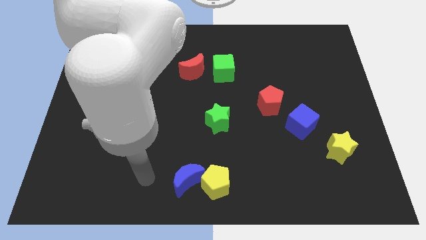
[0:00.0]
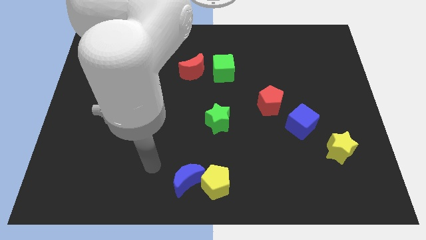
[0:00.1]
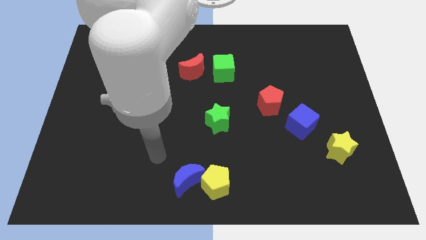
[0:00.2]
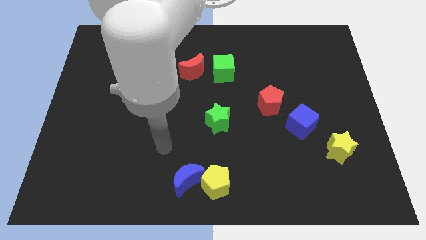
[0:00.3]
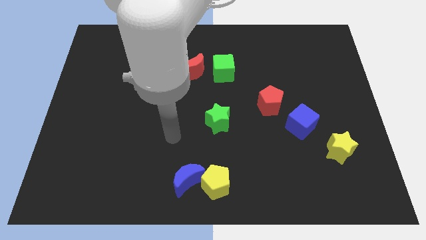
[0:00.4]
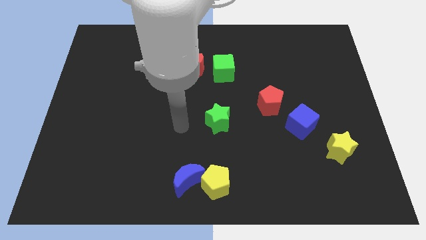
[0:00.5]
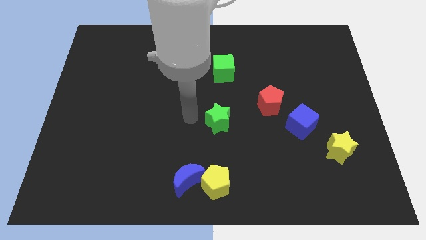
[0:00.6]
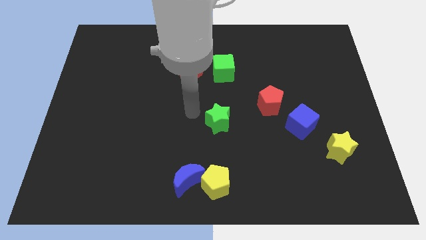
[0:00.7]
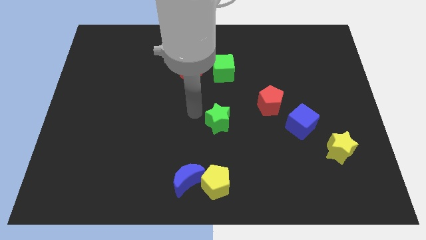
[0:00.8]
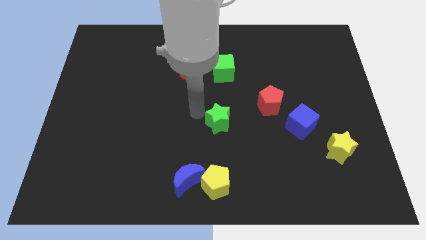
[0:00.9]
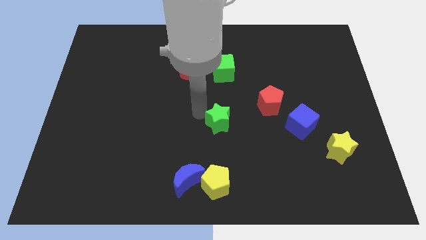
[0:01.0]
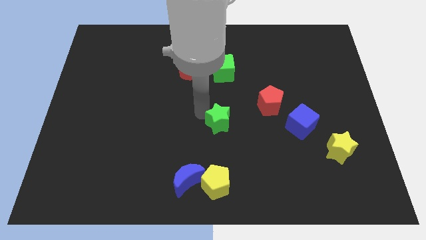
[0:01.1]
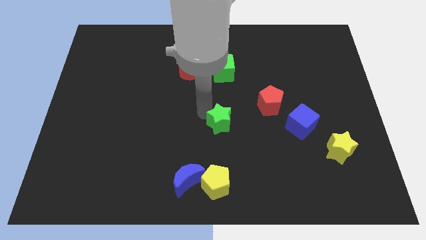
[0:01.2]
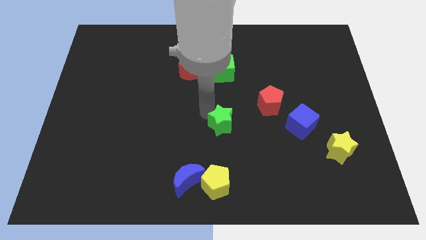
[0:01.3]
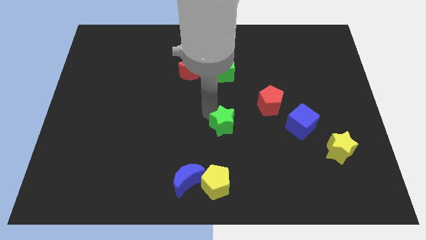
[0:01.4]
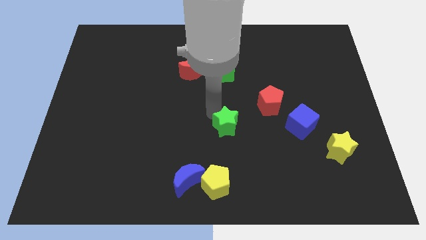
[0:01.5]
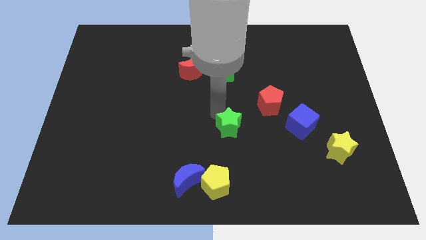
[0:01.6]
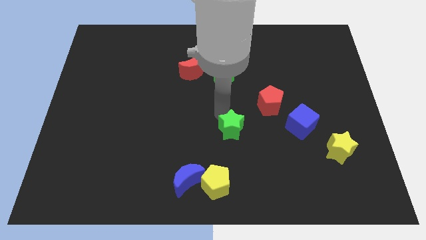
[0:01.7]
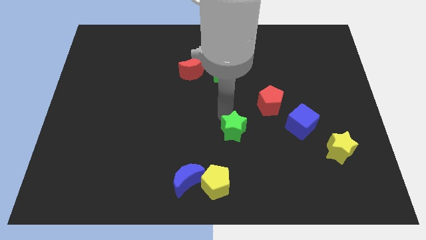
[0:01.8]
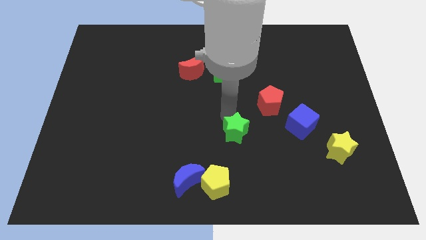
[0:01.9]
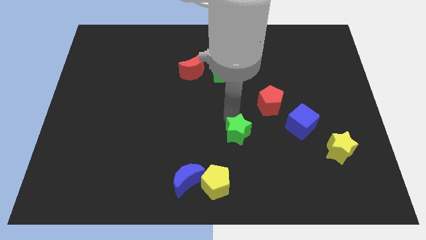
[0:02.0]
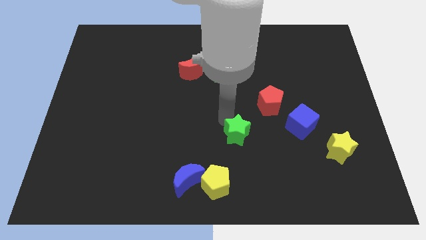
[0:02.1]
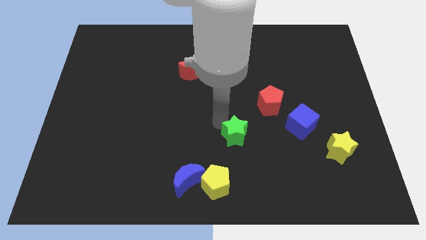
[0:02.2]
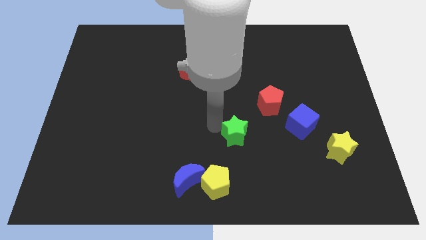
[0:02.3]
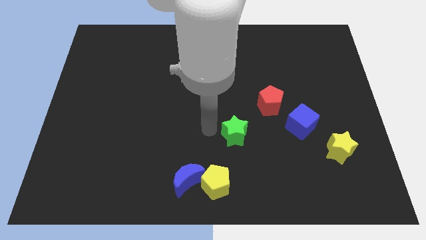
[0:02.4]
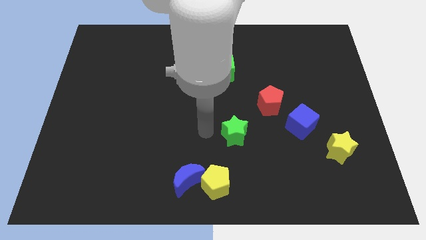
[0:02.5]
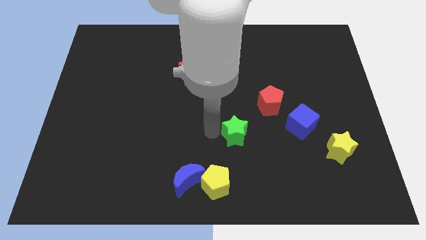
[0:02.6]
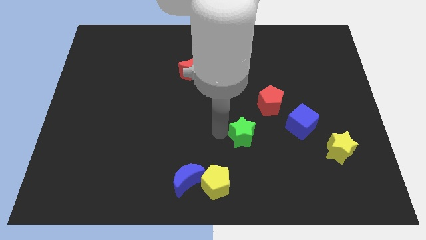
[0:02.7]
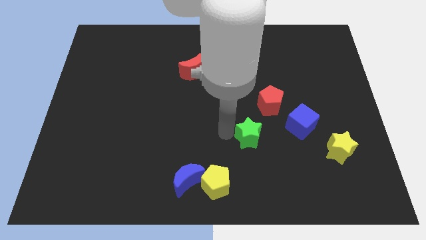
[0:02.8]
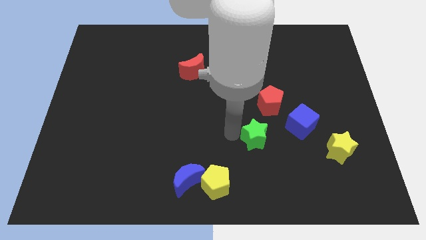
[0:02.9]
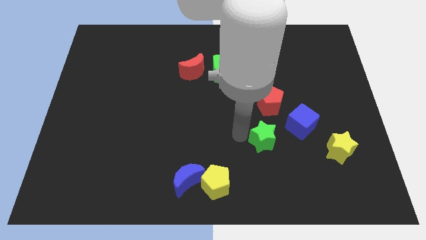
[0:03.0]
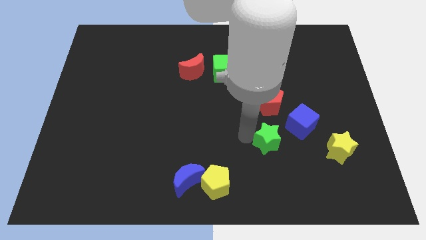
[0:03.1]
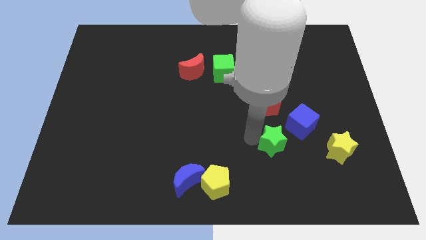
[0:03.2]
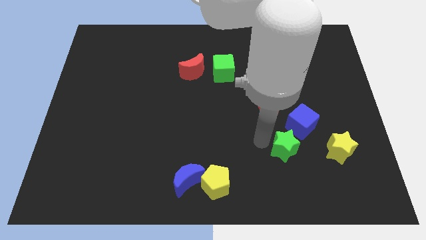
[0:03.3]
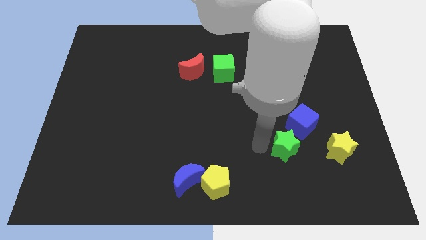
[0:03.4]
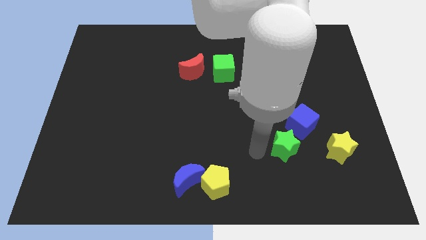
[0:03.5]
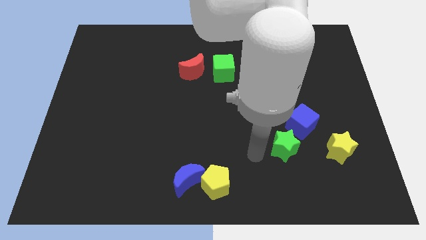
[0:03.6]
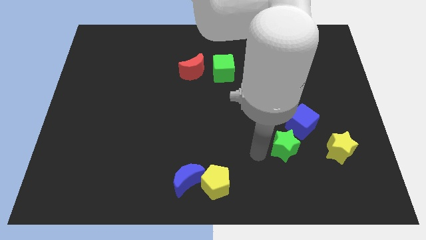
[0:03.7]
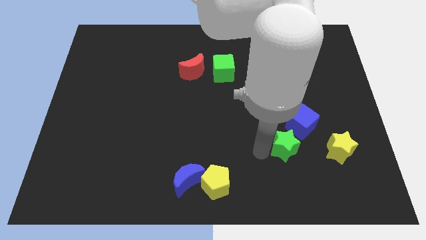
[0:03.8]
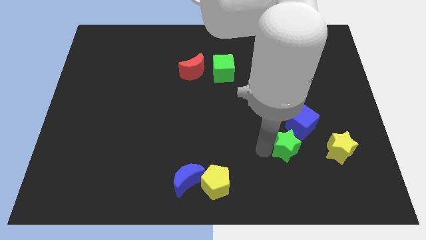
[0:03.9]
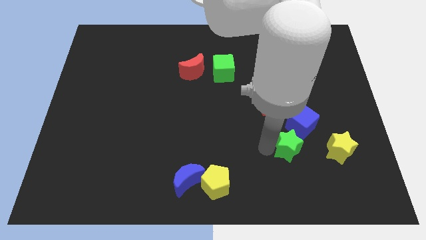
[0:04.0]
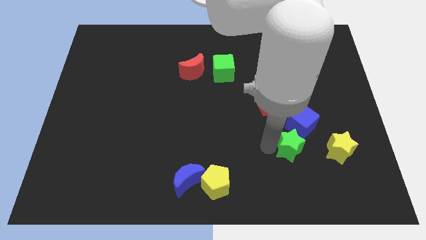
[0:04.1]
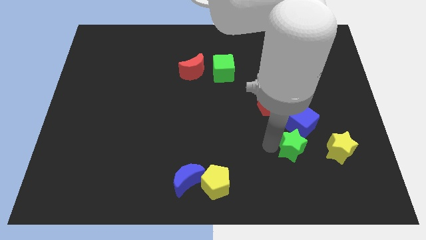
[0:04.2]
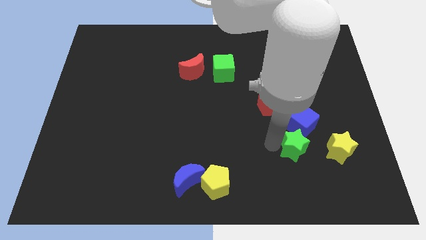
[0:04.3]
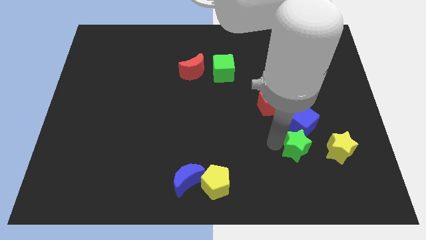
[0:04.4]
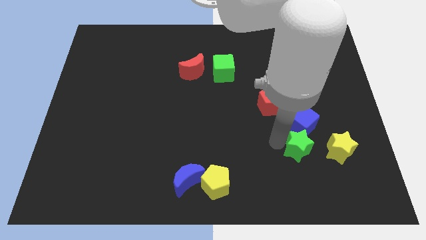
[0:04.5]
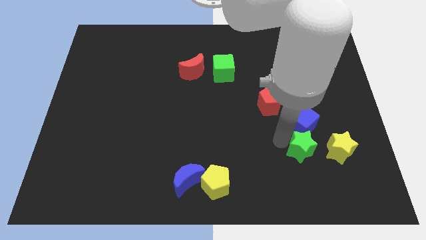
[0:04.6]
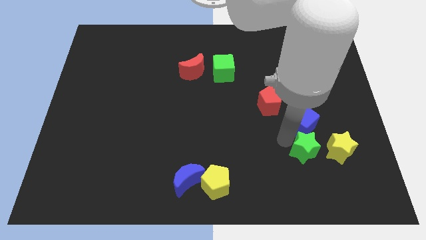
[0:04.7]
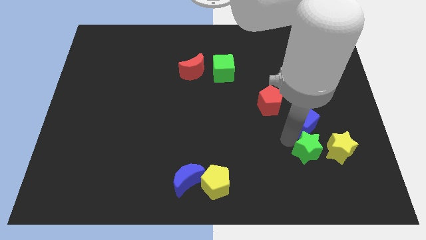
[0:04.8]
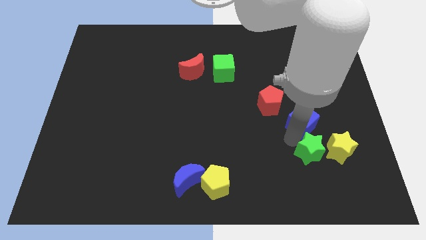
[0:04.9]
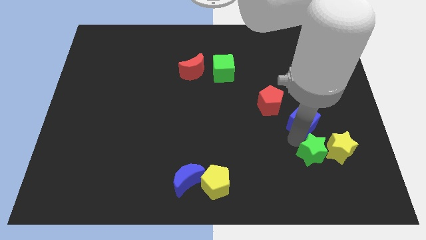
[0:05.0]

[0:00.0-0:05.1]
move the green star towards the yellow star

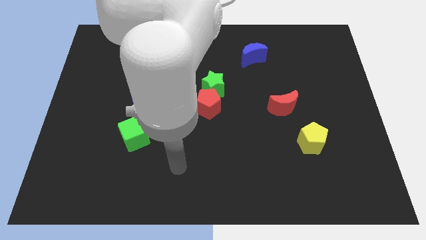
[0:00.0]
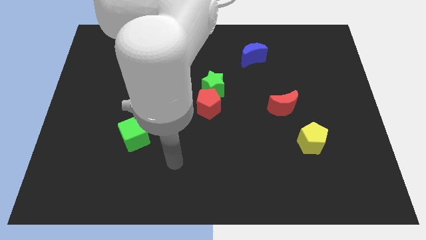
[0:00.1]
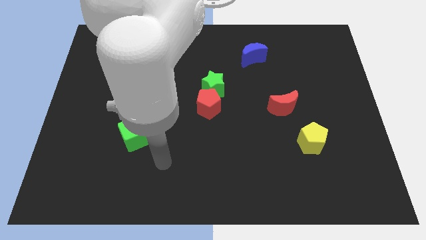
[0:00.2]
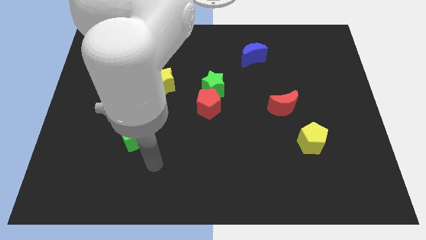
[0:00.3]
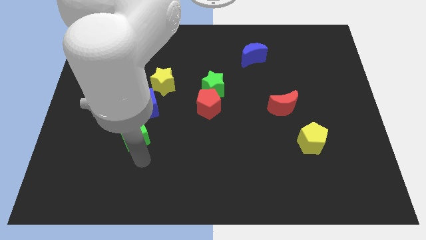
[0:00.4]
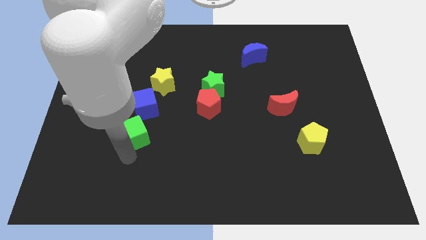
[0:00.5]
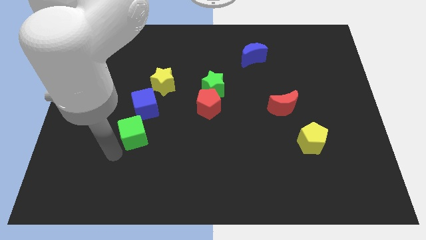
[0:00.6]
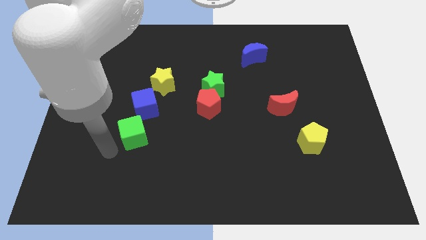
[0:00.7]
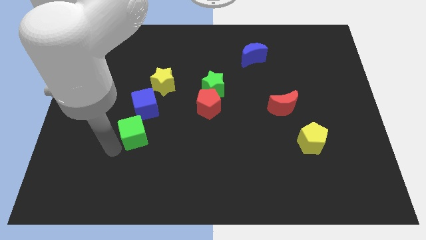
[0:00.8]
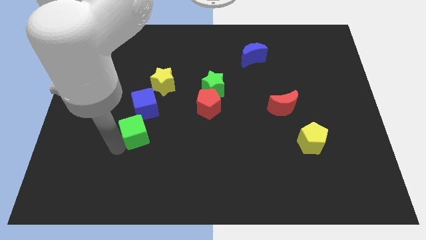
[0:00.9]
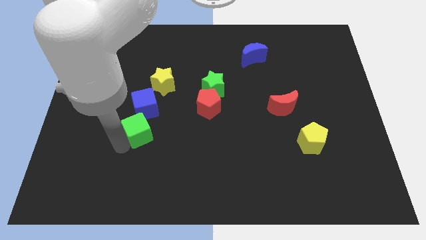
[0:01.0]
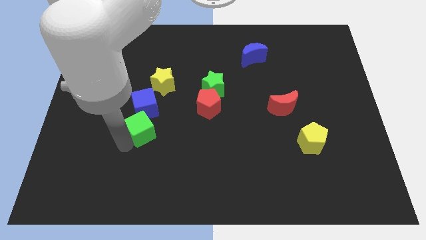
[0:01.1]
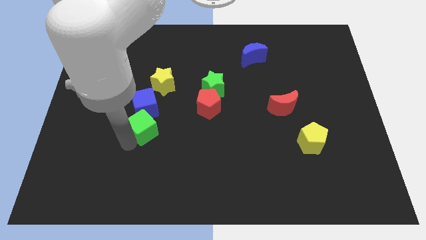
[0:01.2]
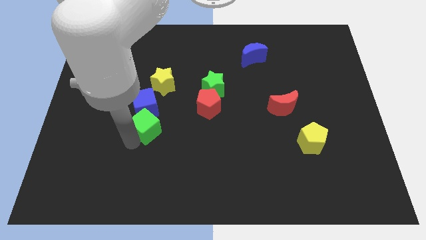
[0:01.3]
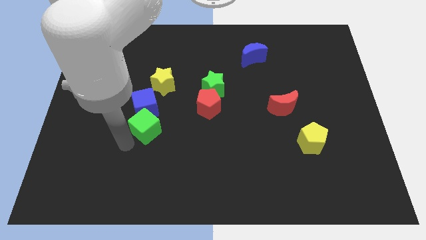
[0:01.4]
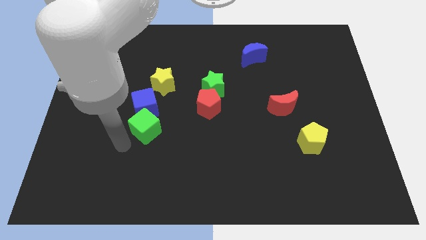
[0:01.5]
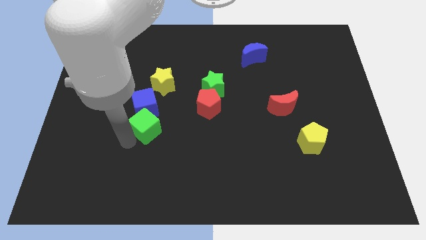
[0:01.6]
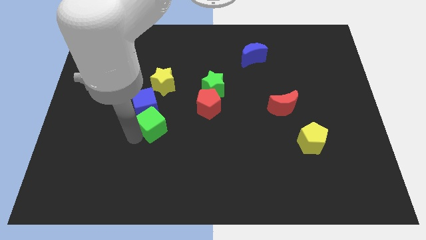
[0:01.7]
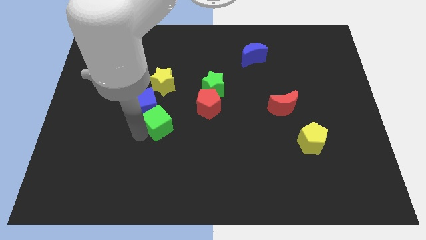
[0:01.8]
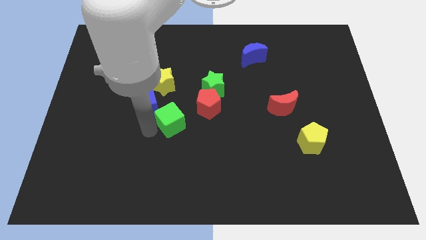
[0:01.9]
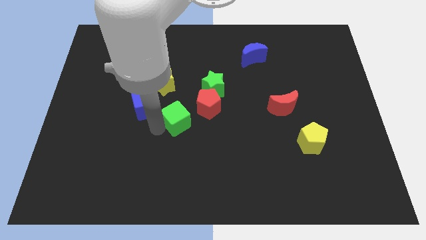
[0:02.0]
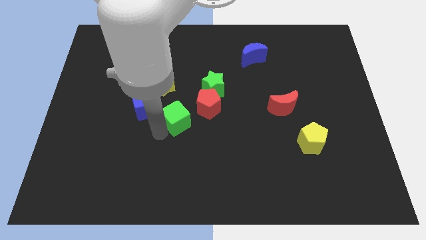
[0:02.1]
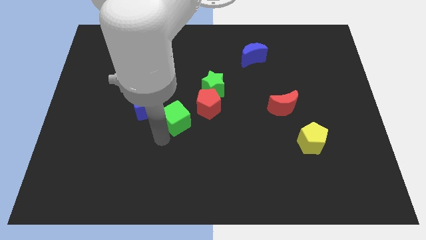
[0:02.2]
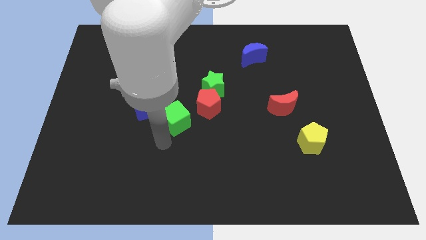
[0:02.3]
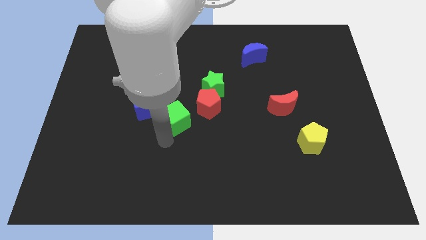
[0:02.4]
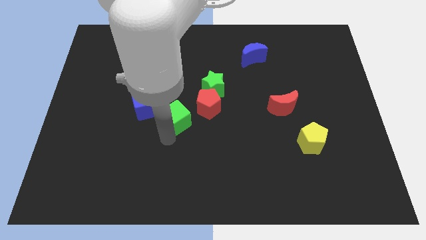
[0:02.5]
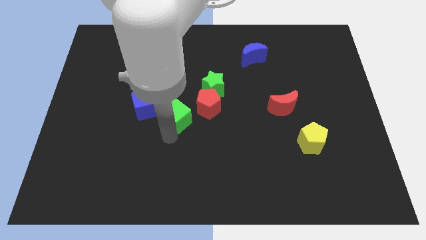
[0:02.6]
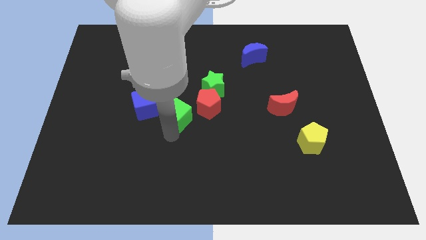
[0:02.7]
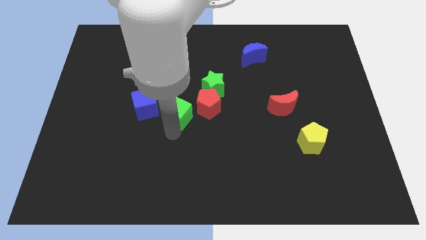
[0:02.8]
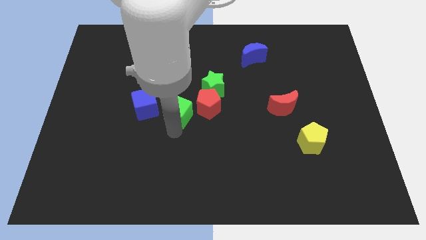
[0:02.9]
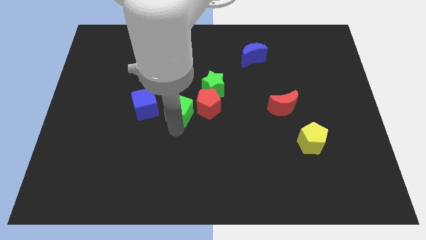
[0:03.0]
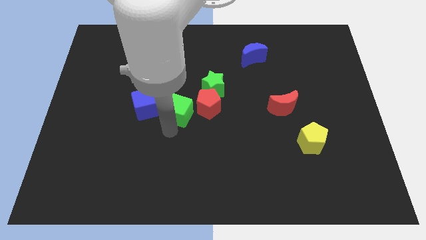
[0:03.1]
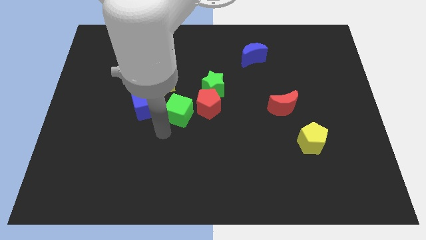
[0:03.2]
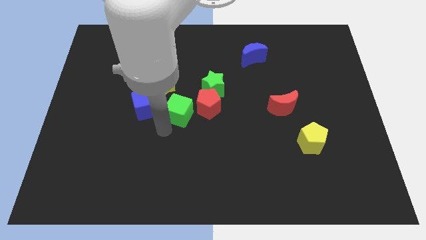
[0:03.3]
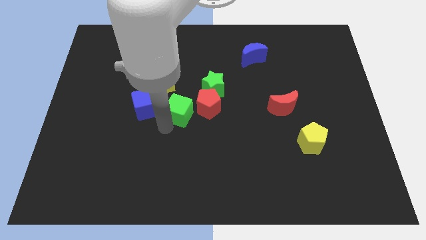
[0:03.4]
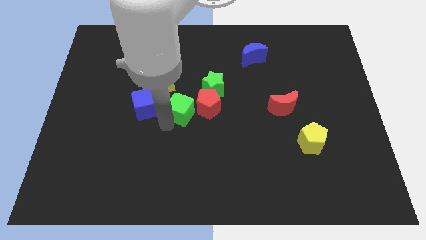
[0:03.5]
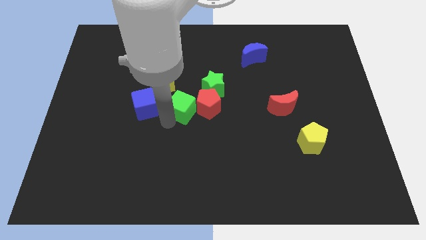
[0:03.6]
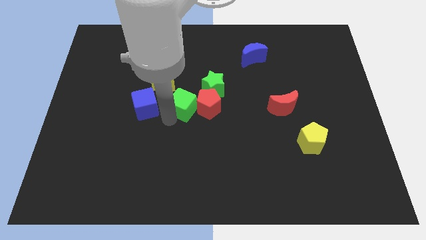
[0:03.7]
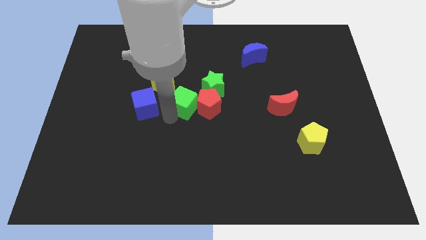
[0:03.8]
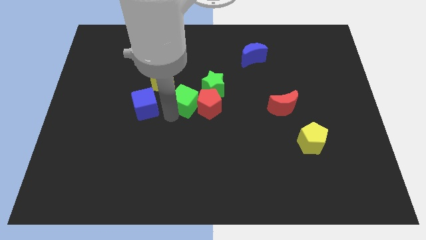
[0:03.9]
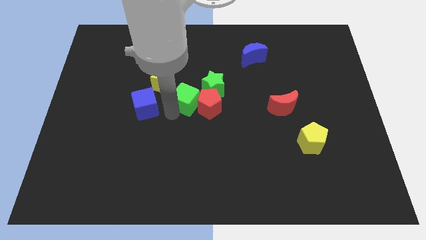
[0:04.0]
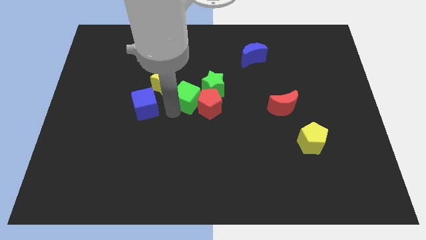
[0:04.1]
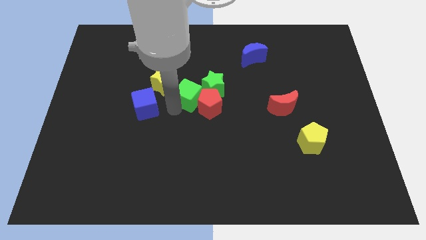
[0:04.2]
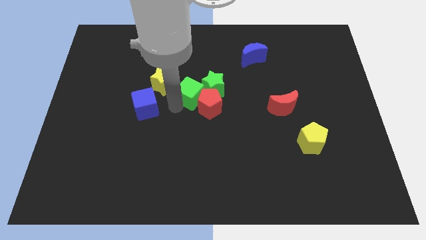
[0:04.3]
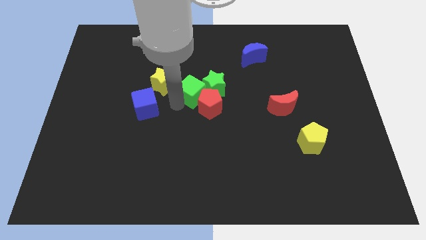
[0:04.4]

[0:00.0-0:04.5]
put the green cube towards the green star
